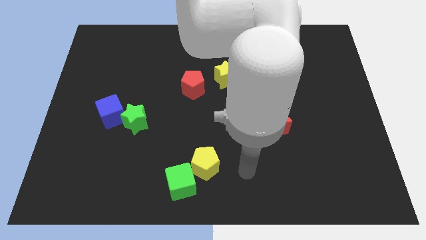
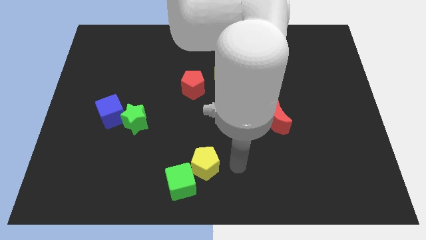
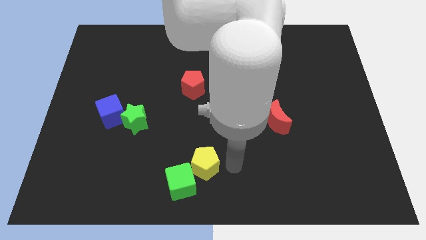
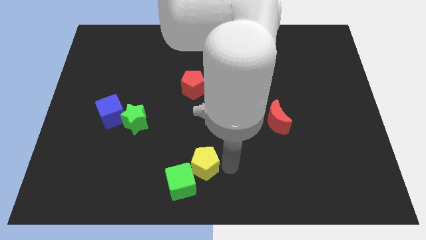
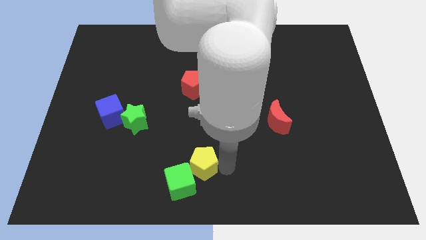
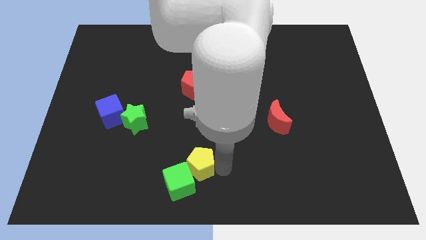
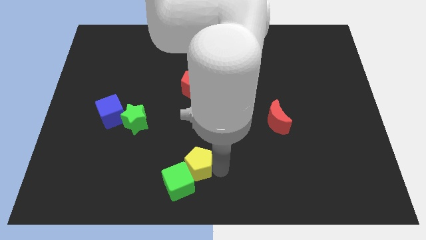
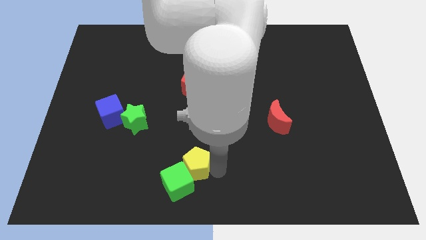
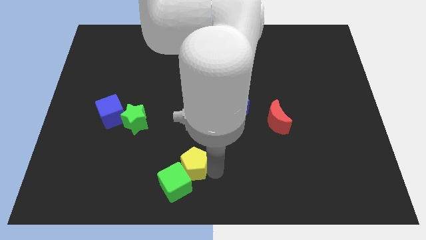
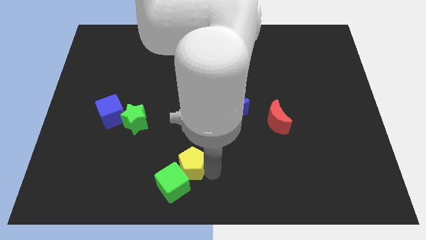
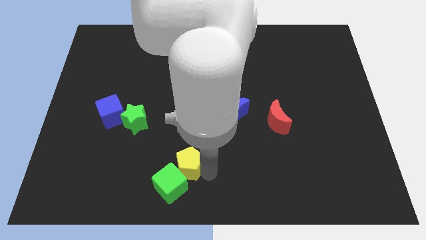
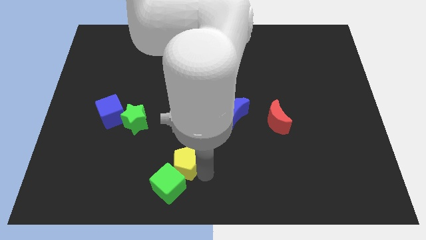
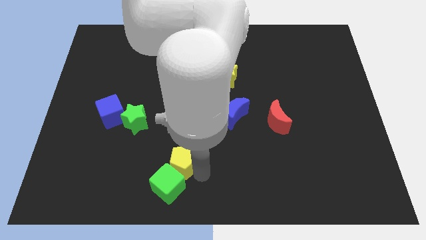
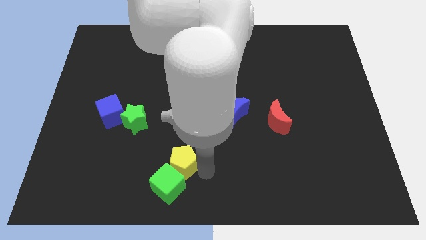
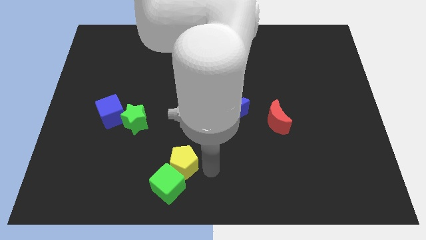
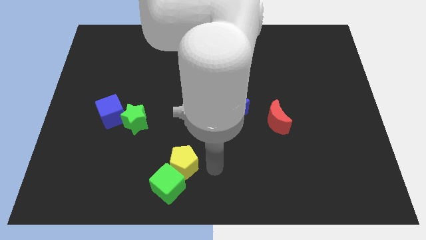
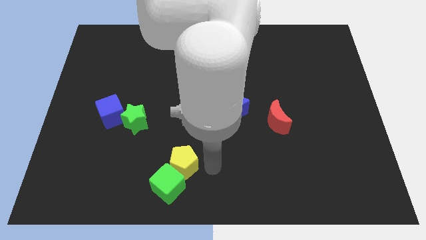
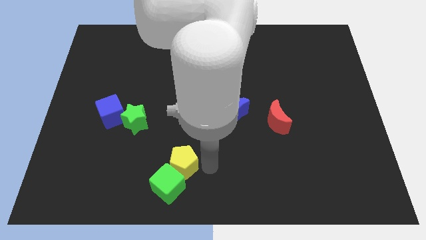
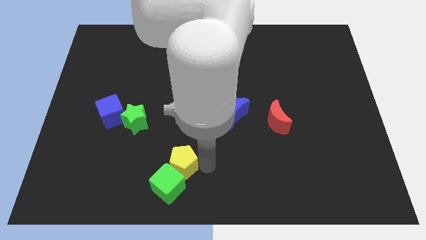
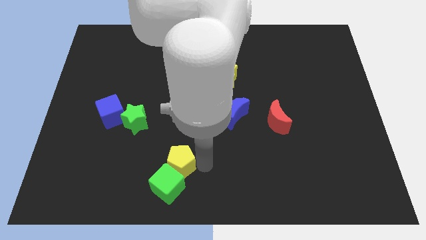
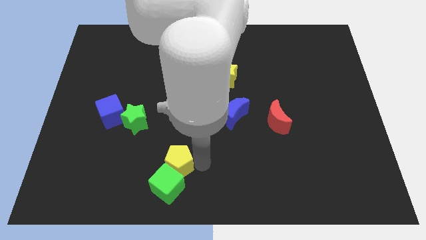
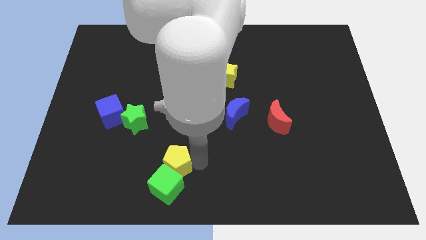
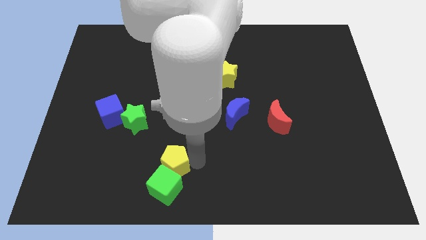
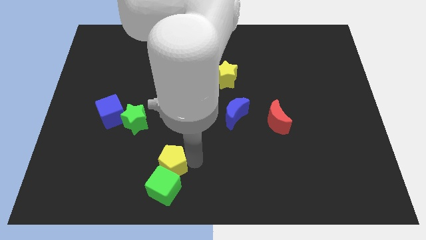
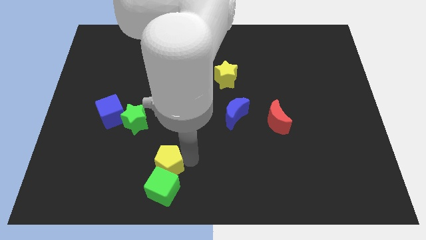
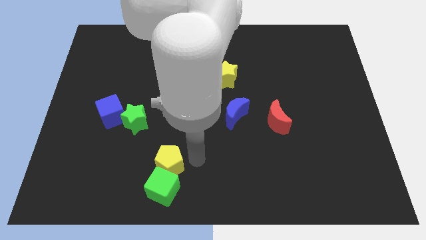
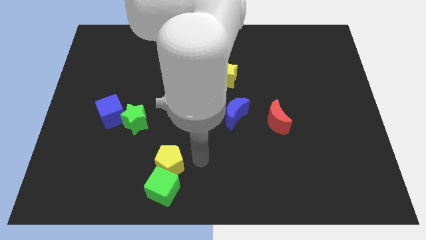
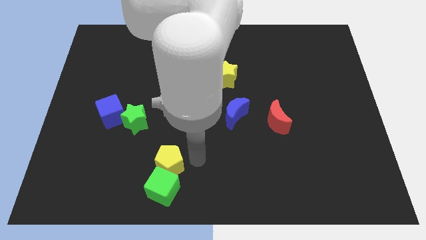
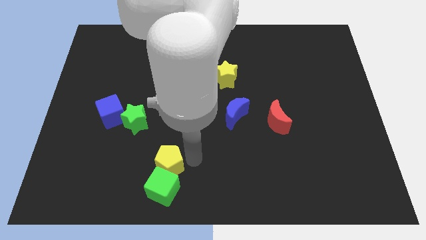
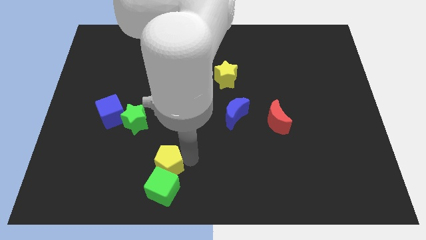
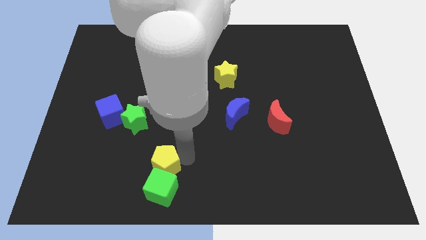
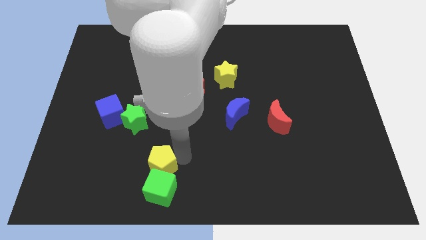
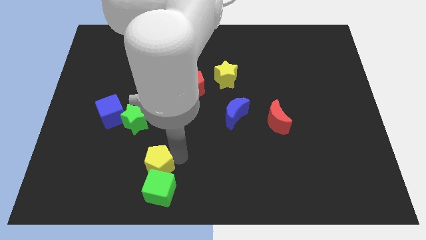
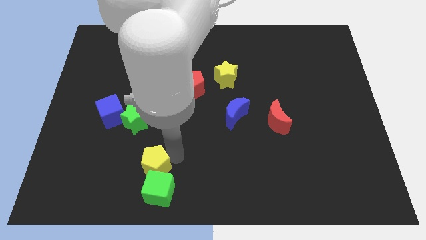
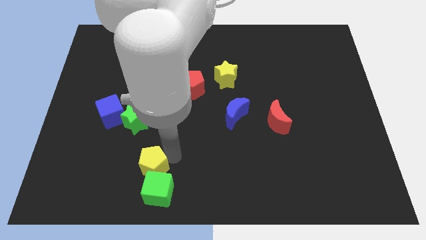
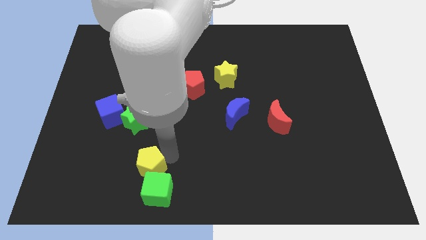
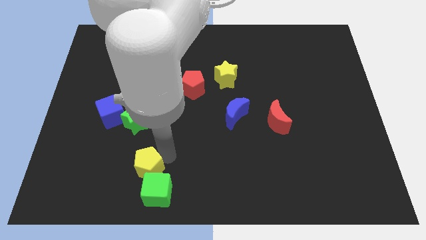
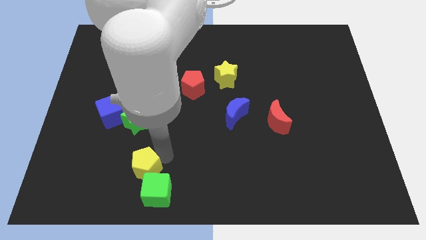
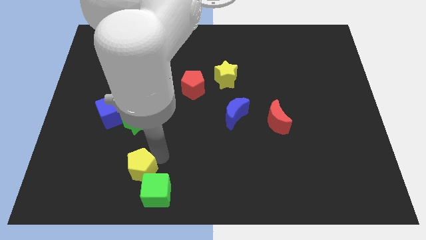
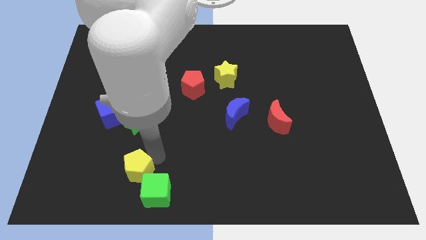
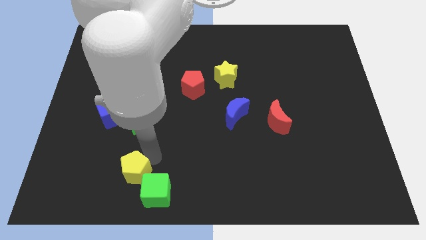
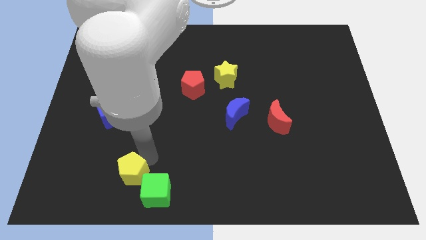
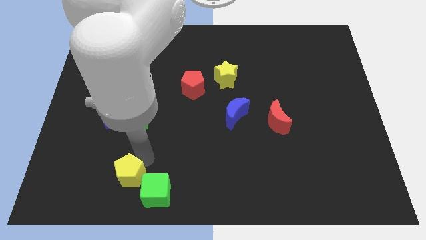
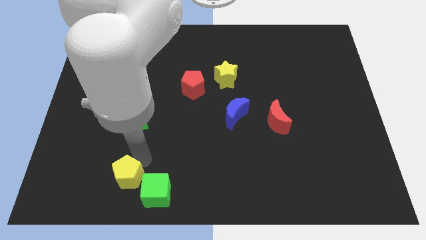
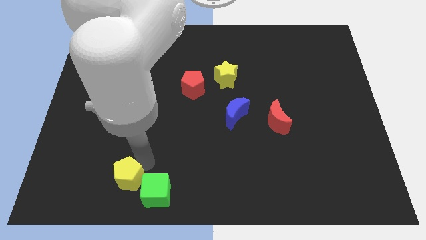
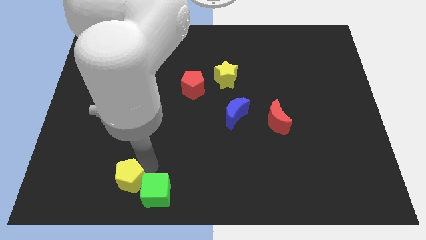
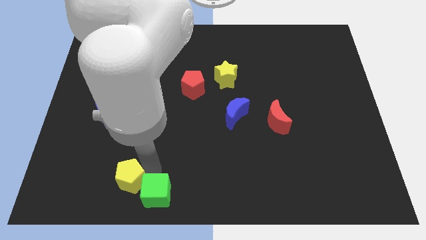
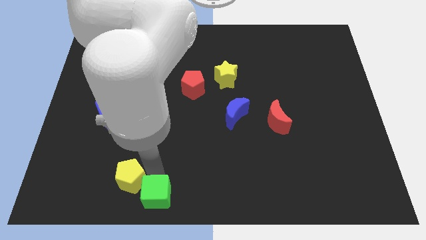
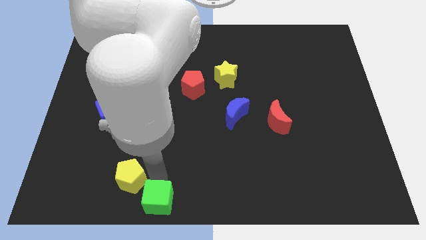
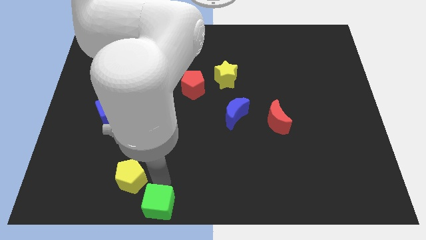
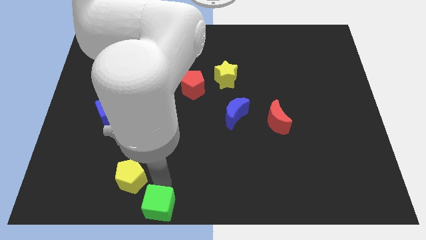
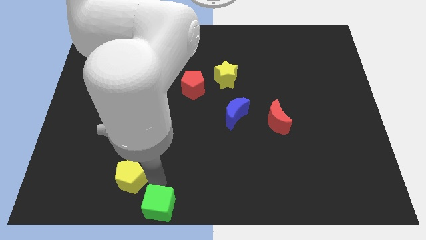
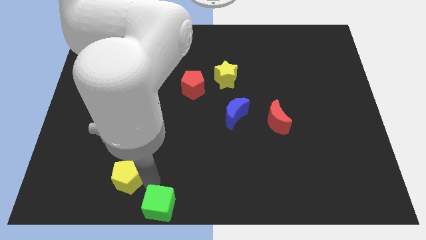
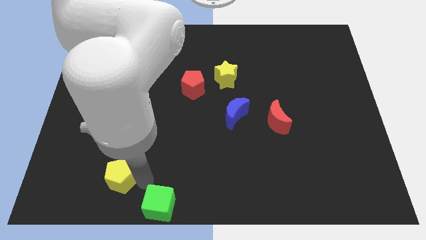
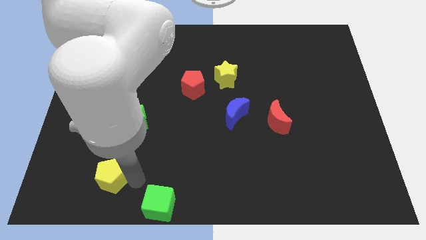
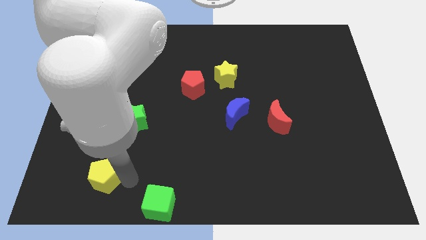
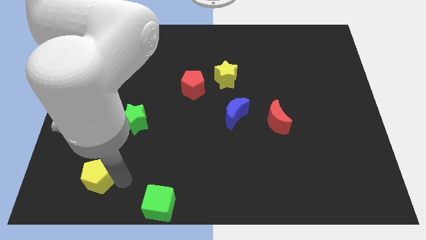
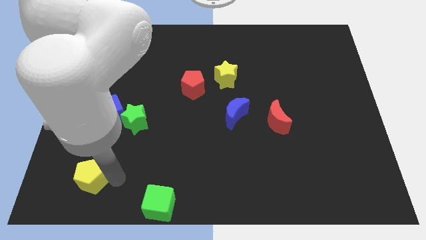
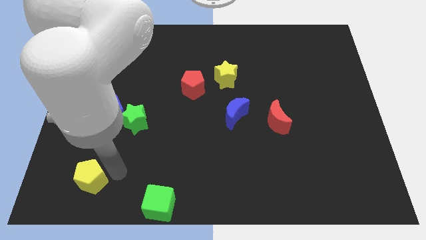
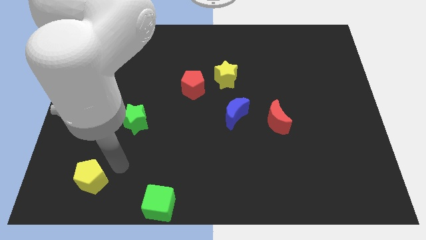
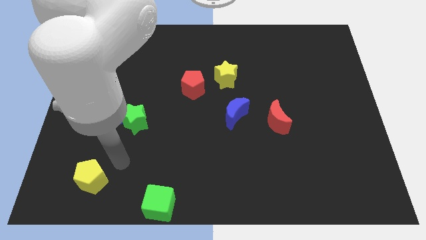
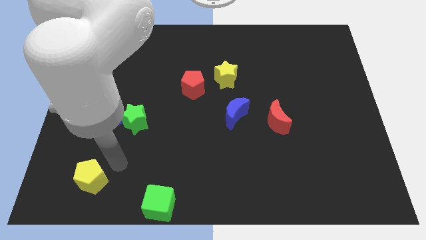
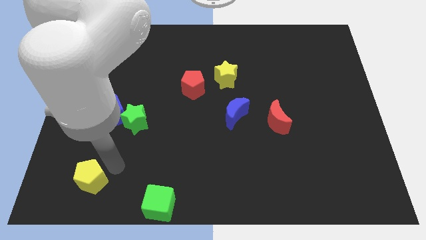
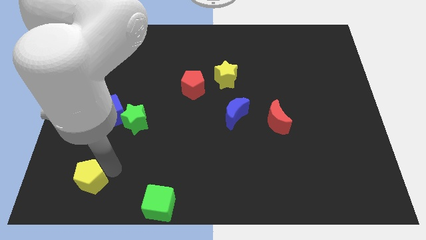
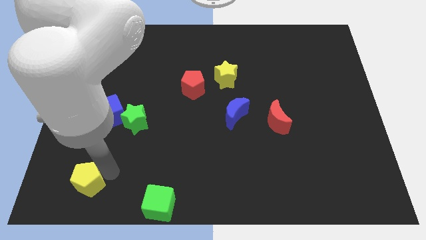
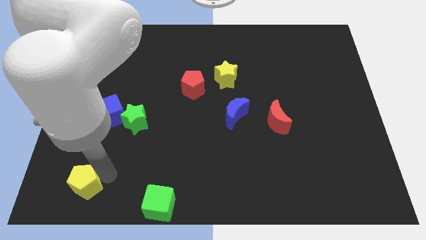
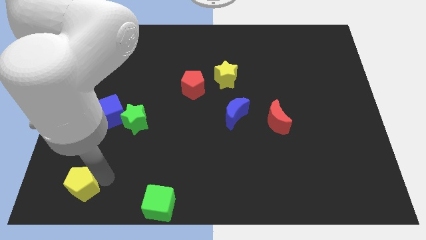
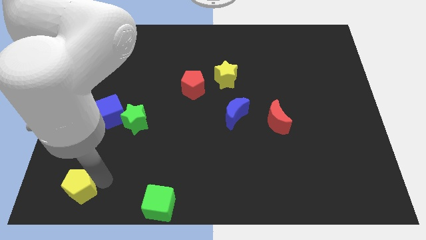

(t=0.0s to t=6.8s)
put the yellow pentagon to the bottom left of the board
